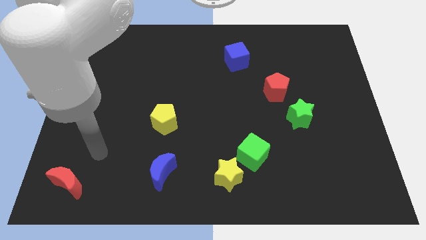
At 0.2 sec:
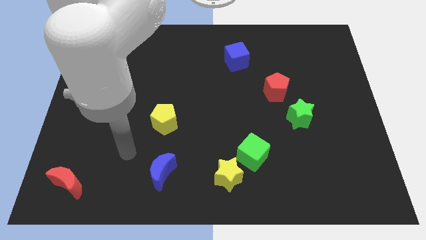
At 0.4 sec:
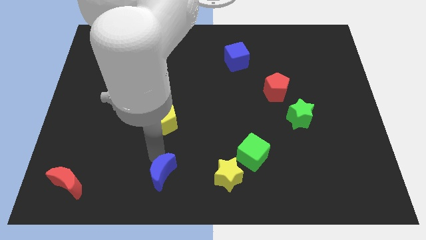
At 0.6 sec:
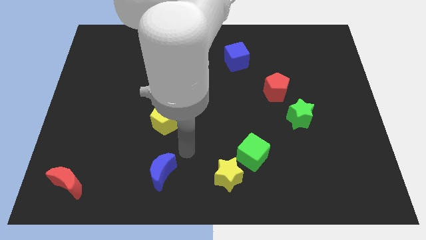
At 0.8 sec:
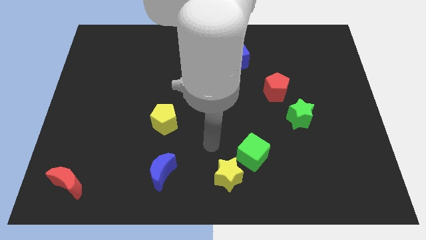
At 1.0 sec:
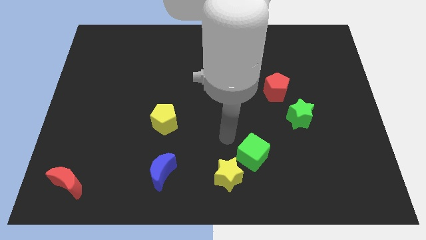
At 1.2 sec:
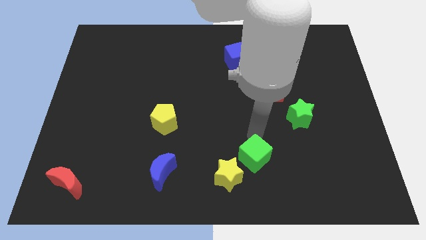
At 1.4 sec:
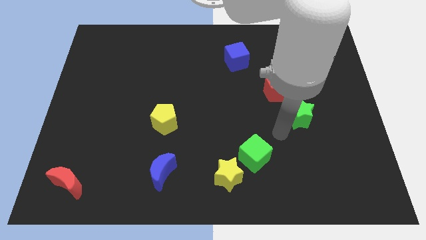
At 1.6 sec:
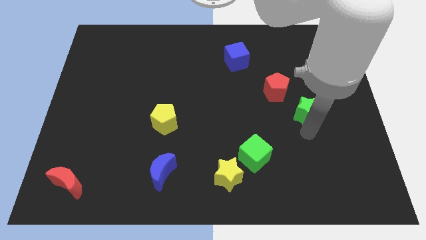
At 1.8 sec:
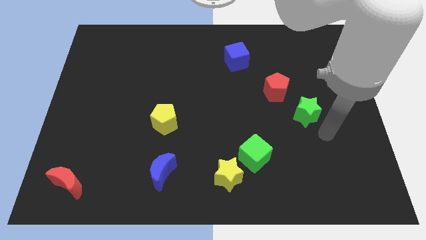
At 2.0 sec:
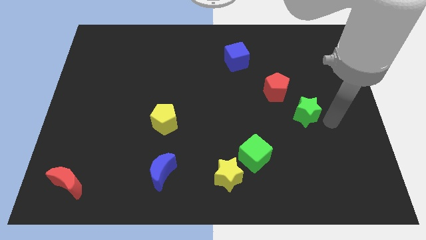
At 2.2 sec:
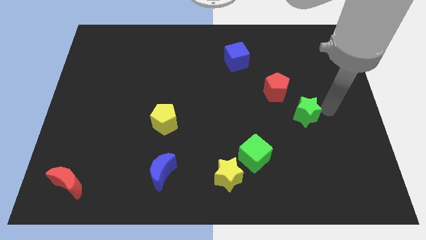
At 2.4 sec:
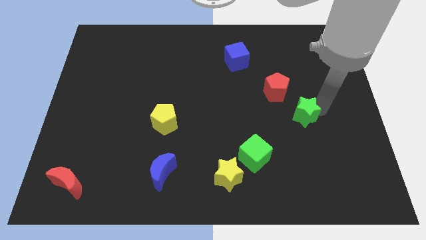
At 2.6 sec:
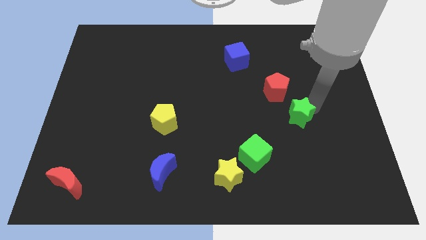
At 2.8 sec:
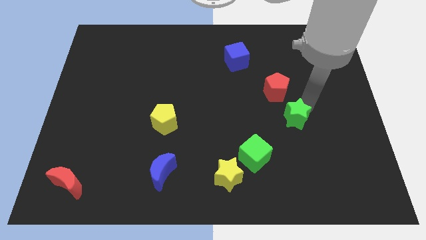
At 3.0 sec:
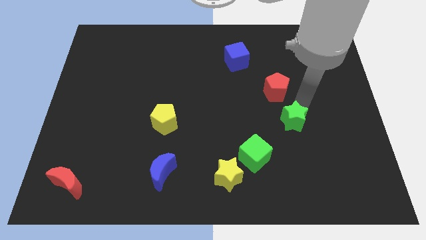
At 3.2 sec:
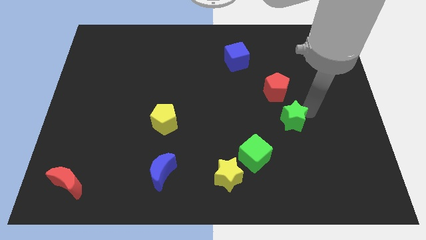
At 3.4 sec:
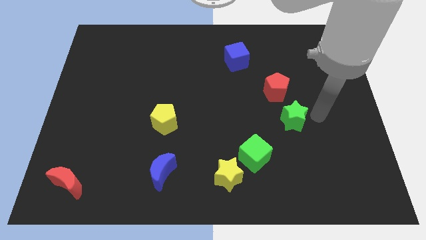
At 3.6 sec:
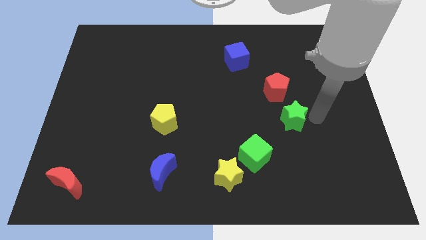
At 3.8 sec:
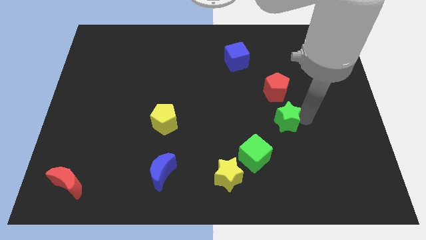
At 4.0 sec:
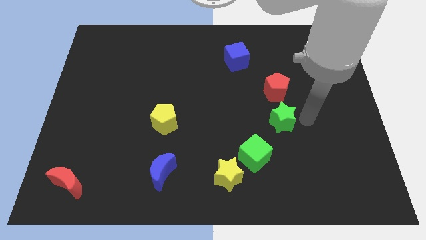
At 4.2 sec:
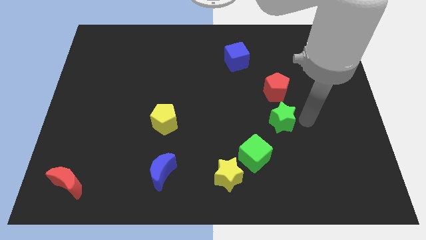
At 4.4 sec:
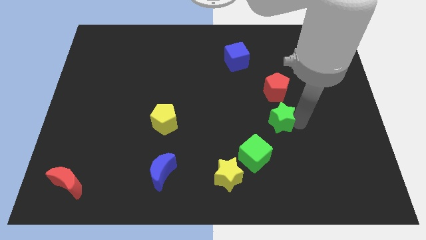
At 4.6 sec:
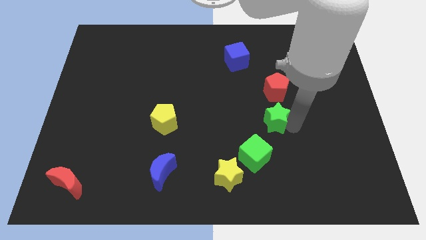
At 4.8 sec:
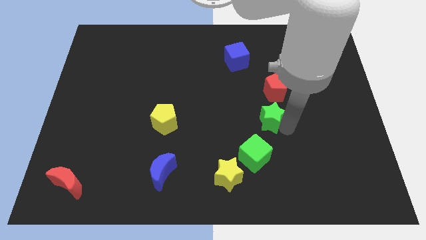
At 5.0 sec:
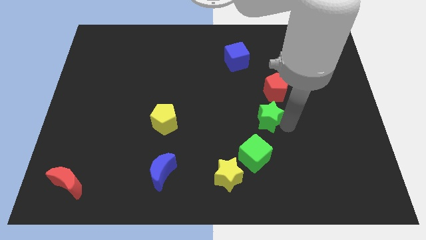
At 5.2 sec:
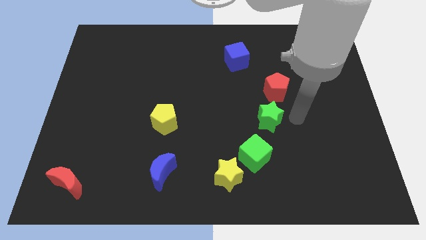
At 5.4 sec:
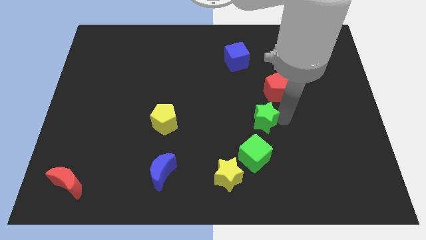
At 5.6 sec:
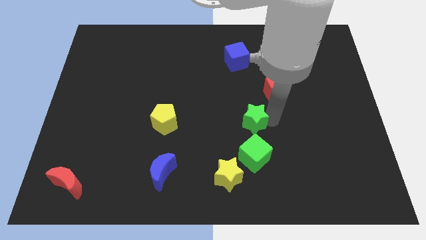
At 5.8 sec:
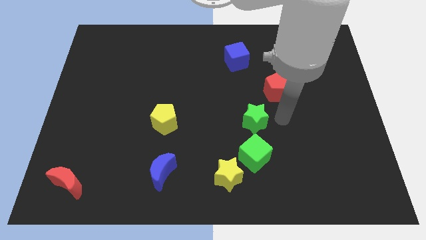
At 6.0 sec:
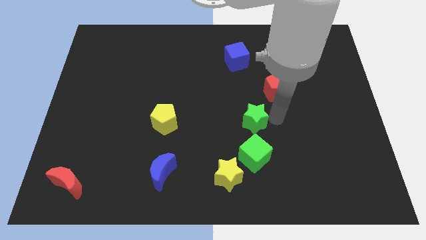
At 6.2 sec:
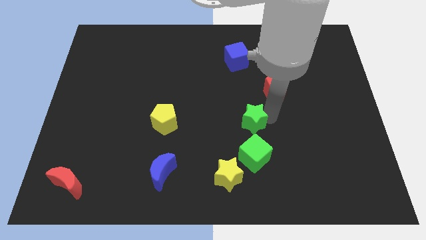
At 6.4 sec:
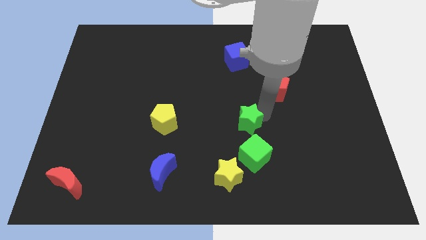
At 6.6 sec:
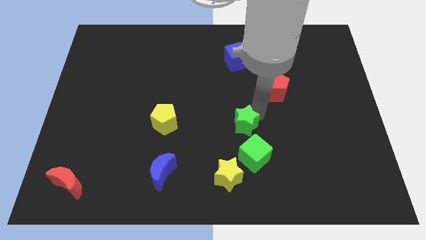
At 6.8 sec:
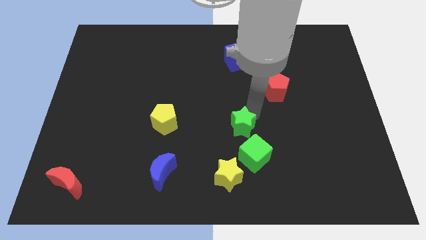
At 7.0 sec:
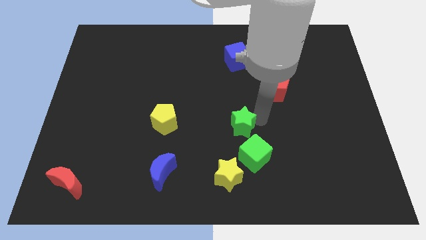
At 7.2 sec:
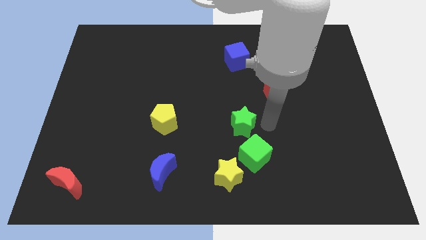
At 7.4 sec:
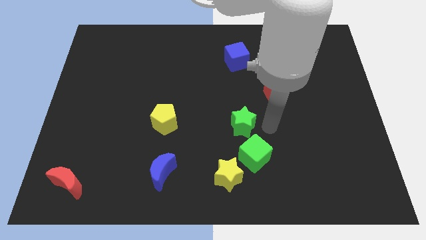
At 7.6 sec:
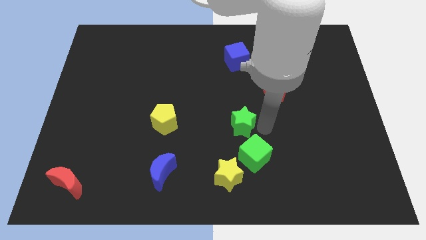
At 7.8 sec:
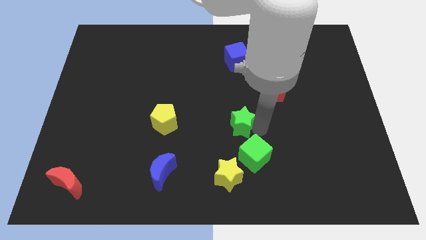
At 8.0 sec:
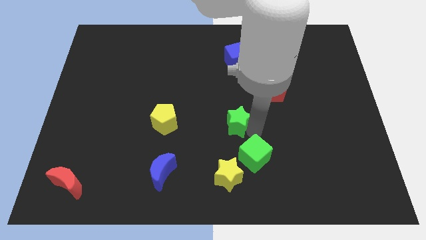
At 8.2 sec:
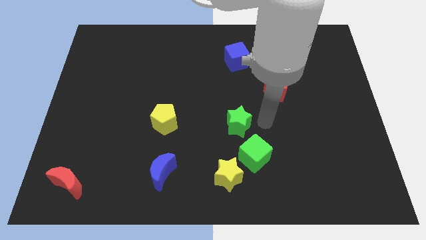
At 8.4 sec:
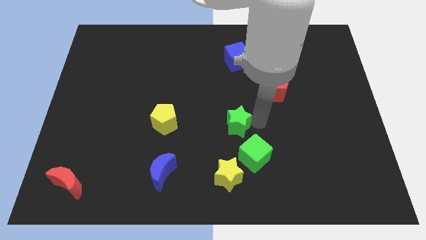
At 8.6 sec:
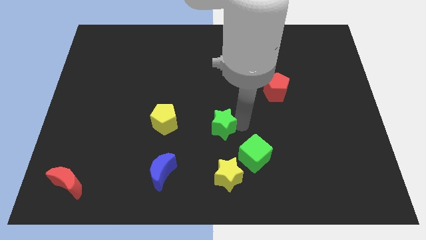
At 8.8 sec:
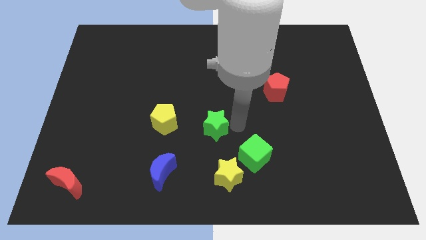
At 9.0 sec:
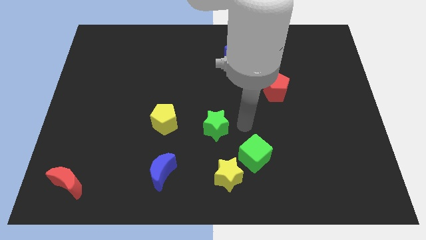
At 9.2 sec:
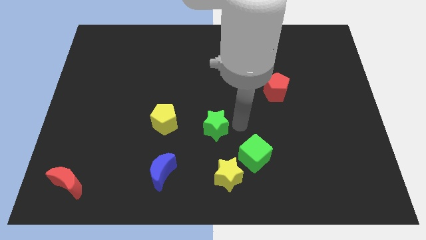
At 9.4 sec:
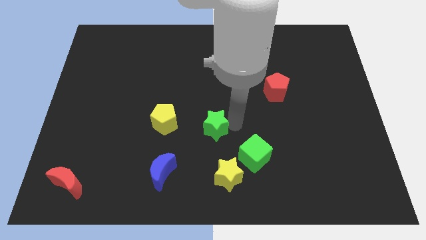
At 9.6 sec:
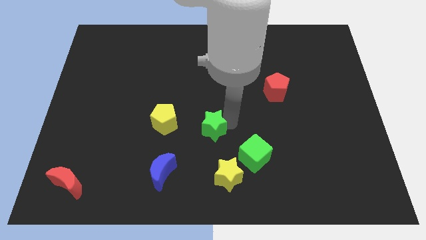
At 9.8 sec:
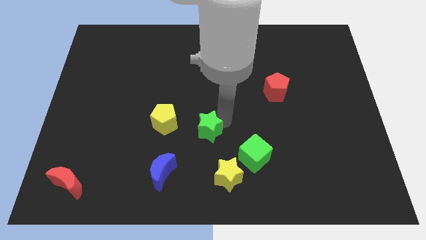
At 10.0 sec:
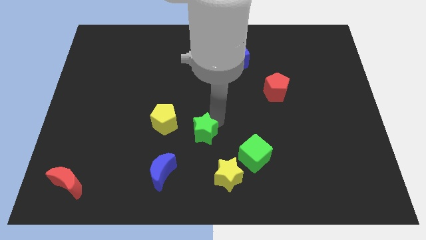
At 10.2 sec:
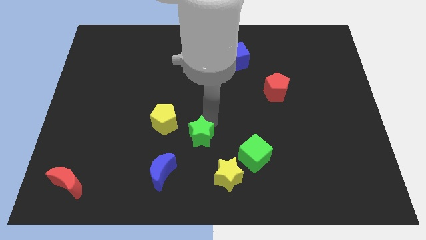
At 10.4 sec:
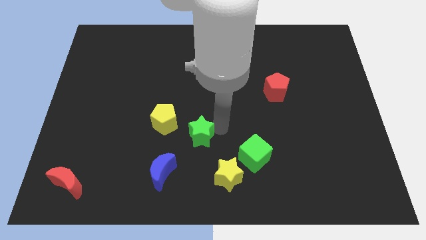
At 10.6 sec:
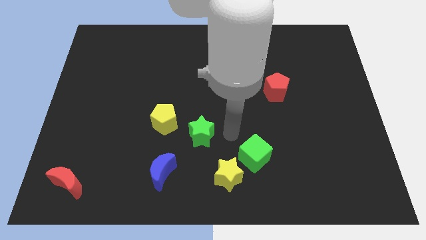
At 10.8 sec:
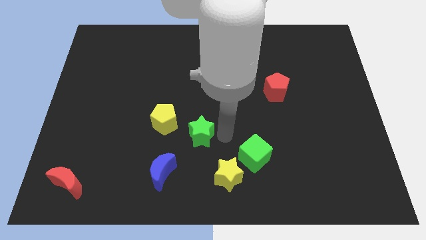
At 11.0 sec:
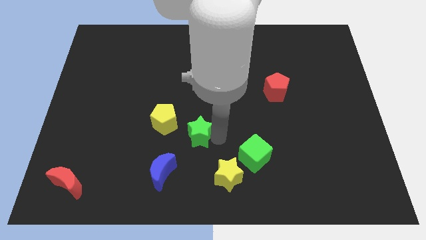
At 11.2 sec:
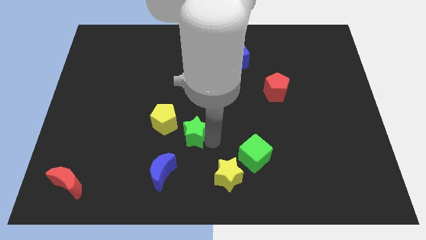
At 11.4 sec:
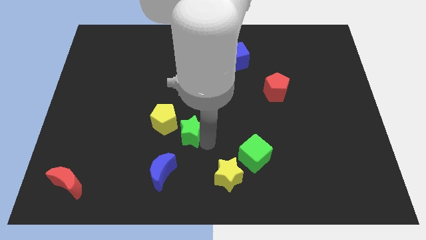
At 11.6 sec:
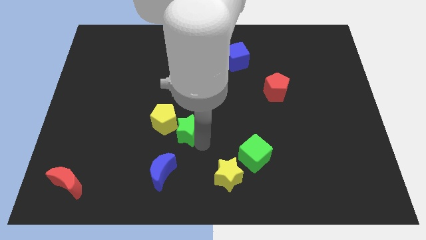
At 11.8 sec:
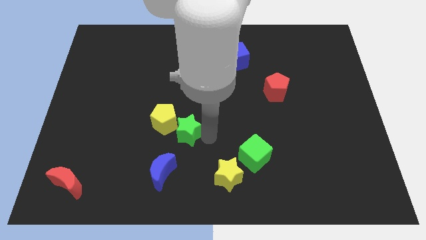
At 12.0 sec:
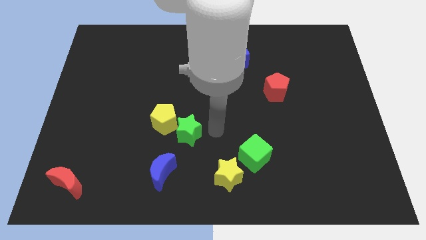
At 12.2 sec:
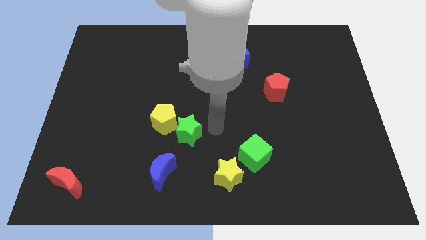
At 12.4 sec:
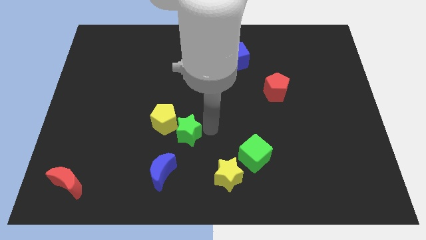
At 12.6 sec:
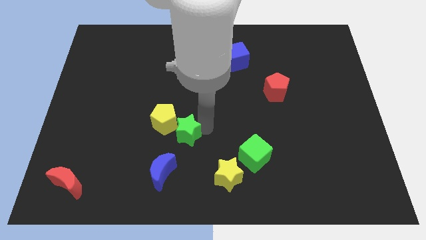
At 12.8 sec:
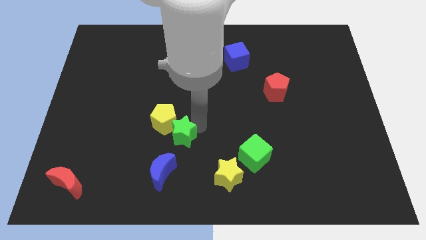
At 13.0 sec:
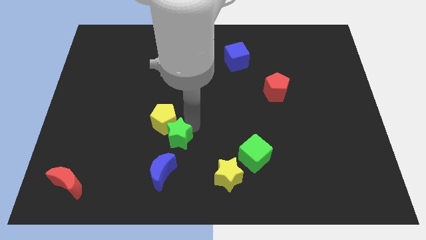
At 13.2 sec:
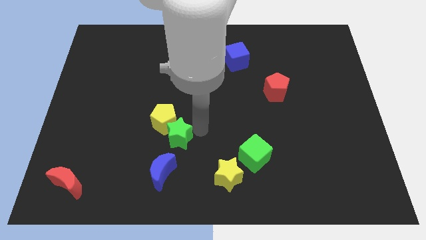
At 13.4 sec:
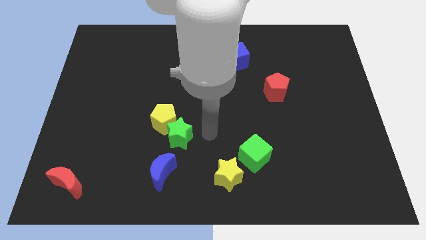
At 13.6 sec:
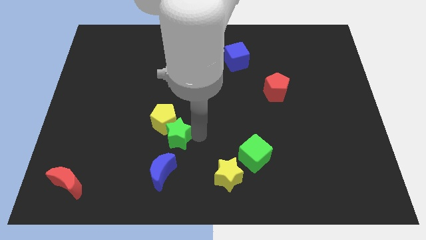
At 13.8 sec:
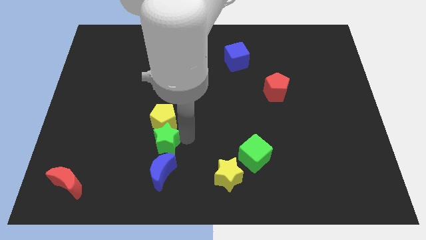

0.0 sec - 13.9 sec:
move the green star diagonally down and to the left of the yellow pentagon

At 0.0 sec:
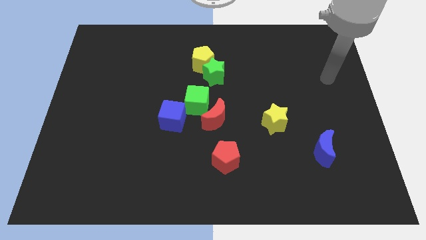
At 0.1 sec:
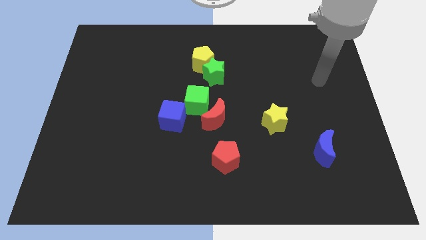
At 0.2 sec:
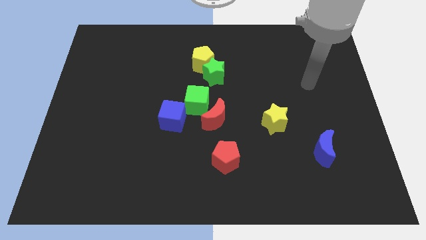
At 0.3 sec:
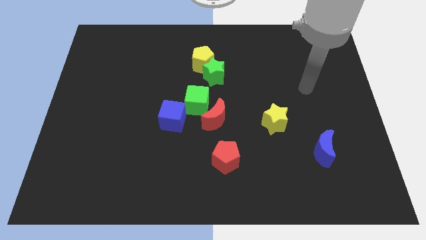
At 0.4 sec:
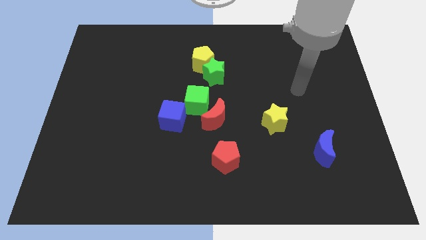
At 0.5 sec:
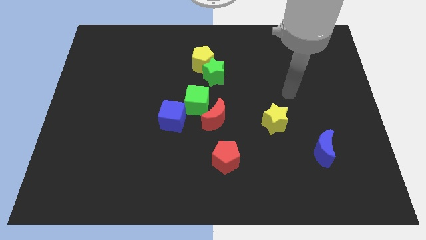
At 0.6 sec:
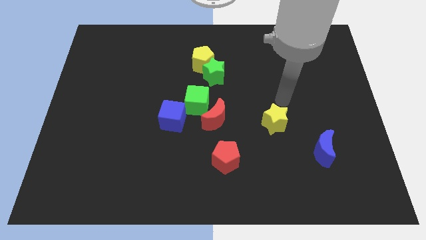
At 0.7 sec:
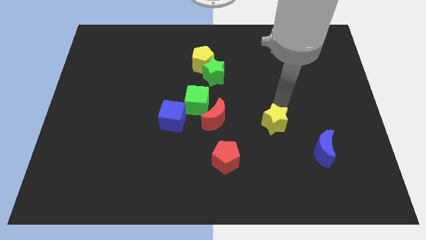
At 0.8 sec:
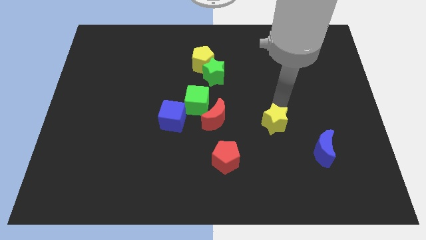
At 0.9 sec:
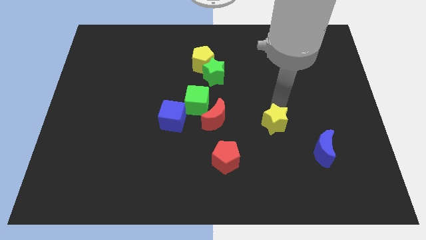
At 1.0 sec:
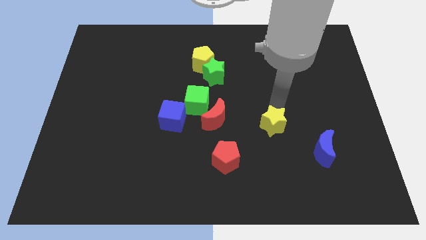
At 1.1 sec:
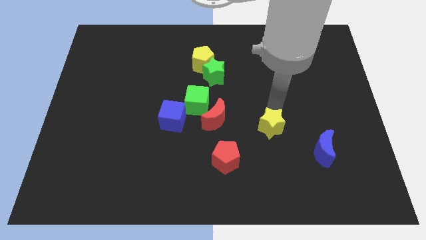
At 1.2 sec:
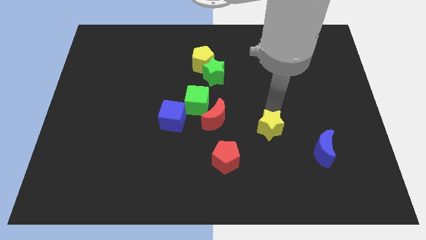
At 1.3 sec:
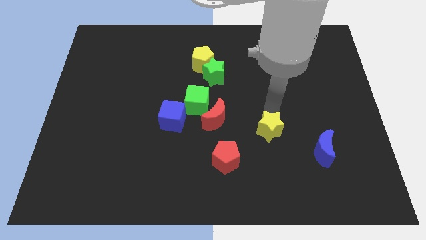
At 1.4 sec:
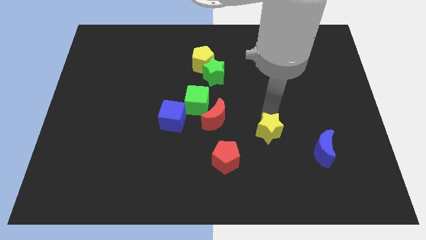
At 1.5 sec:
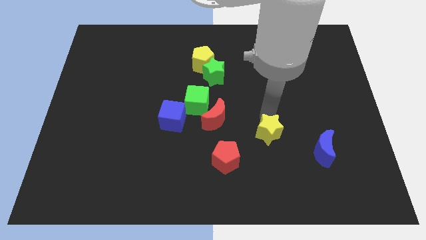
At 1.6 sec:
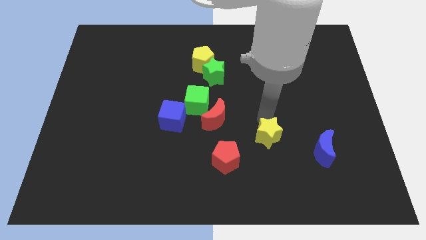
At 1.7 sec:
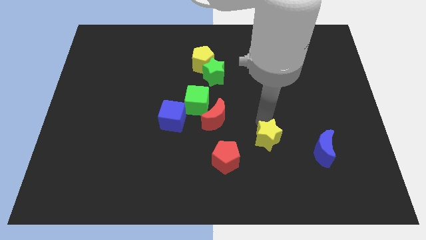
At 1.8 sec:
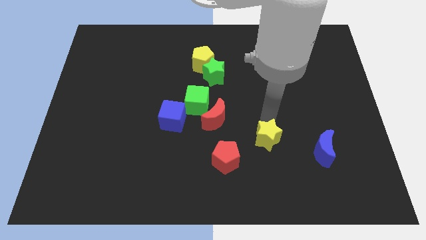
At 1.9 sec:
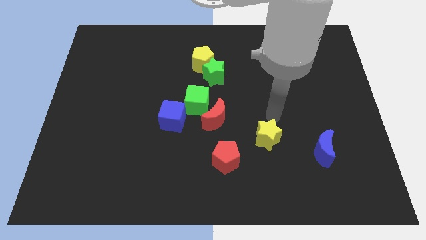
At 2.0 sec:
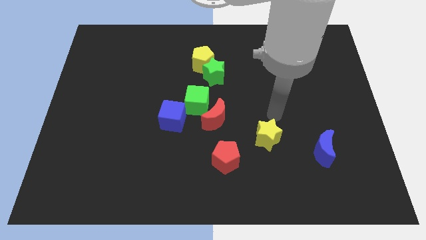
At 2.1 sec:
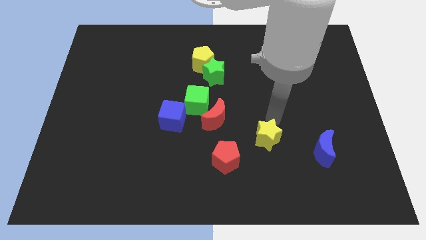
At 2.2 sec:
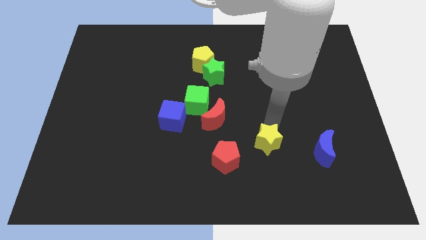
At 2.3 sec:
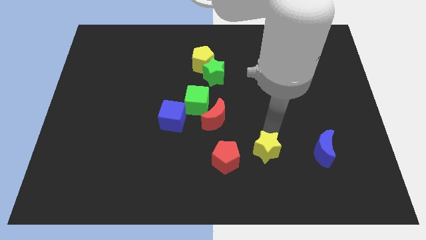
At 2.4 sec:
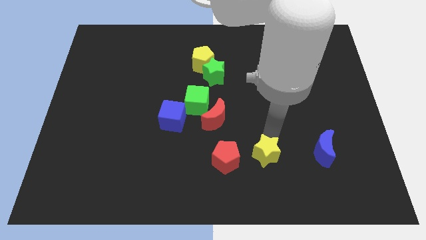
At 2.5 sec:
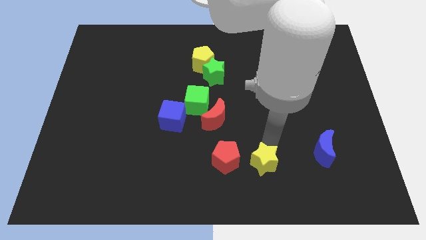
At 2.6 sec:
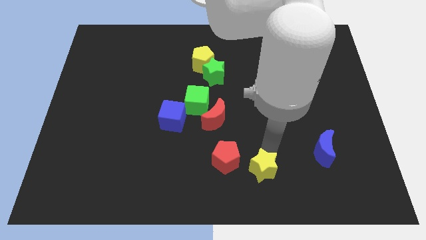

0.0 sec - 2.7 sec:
slide the yellow star to the bottom right side of the red pentagon
